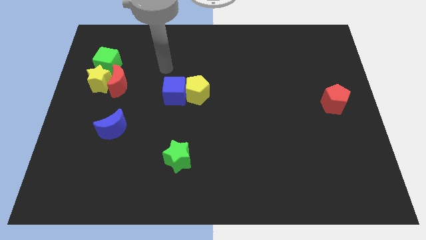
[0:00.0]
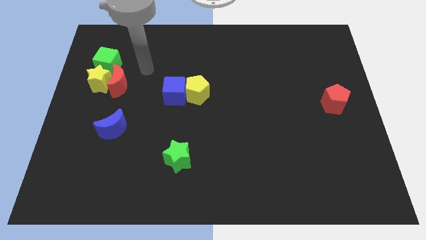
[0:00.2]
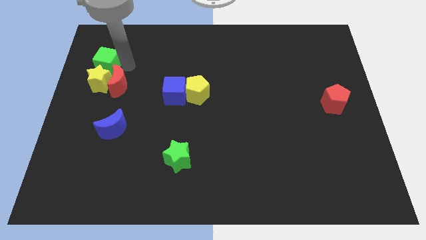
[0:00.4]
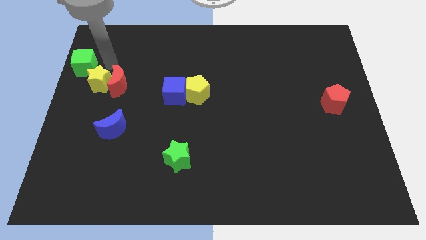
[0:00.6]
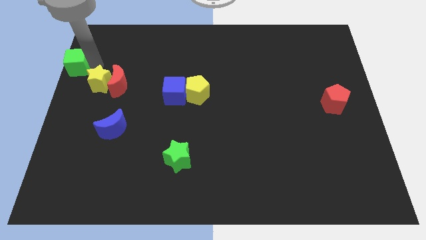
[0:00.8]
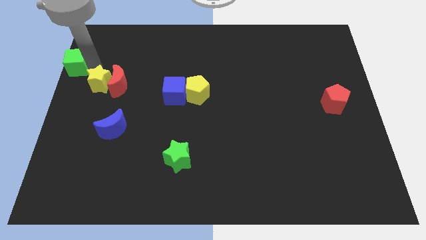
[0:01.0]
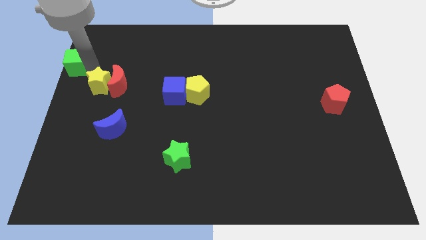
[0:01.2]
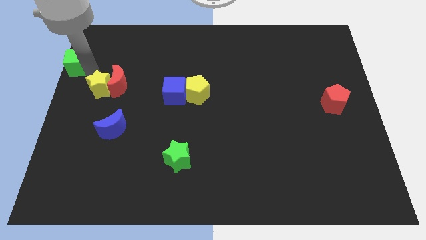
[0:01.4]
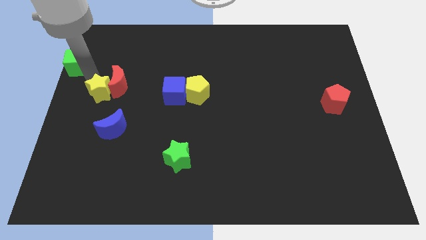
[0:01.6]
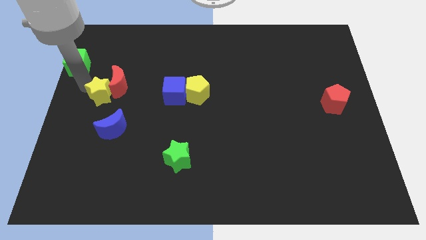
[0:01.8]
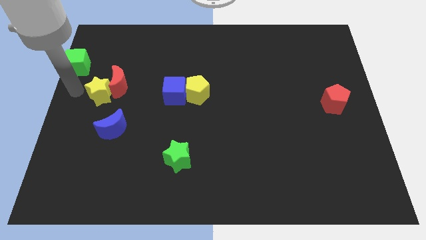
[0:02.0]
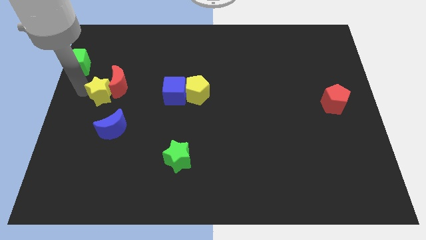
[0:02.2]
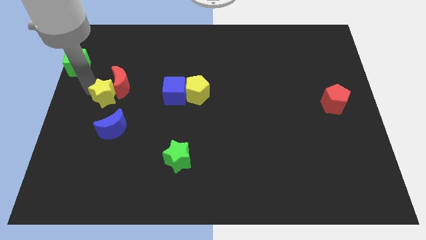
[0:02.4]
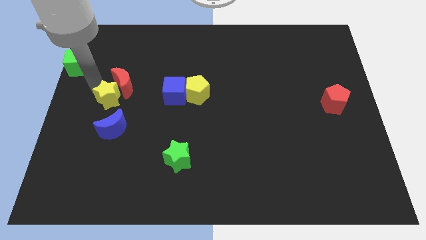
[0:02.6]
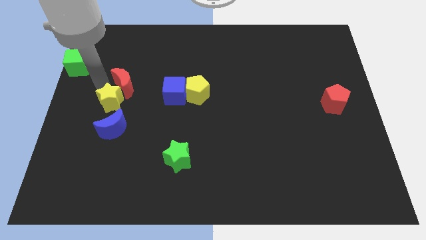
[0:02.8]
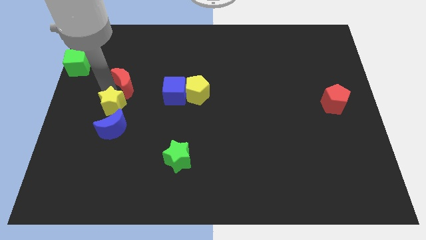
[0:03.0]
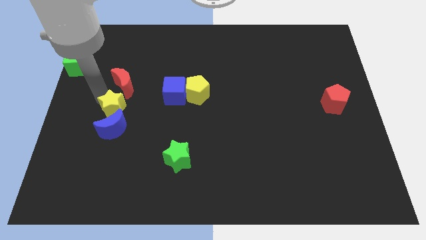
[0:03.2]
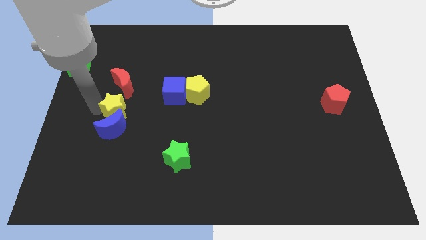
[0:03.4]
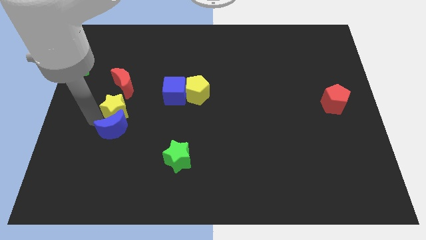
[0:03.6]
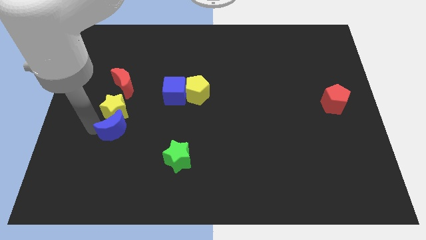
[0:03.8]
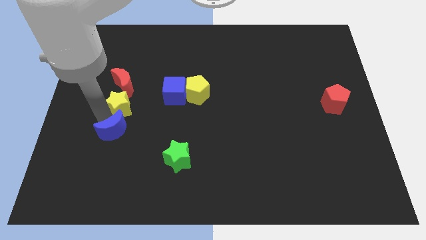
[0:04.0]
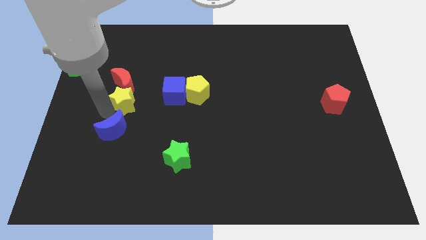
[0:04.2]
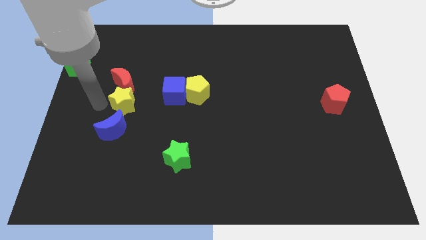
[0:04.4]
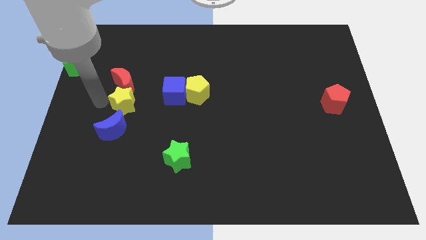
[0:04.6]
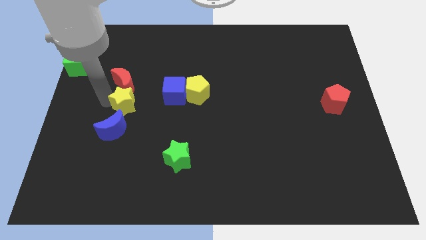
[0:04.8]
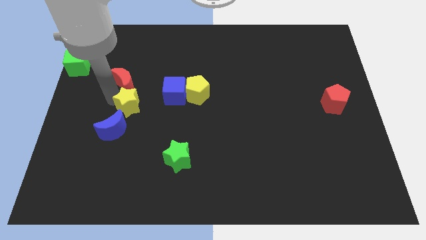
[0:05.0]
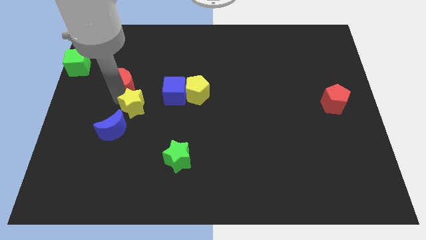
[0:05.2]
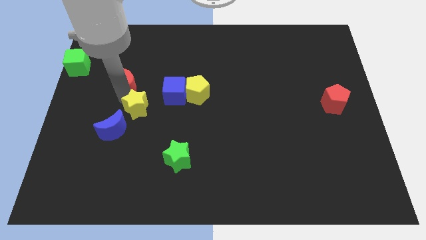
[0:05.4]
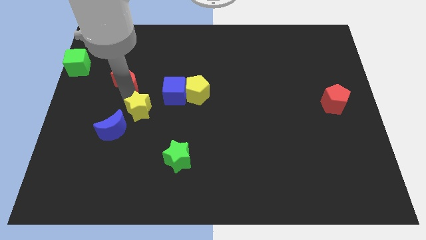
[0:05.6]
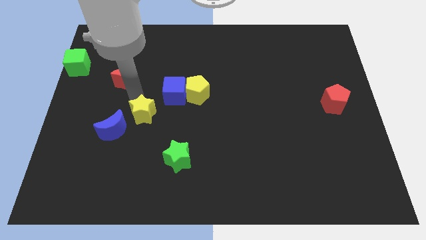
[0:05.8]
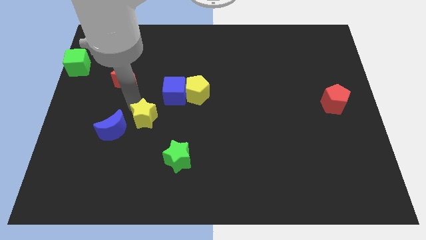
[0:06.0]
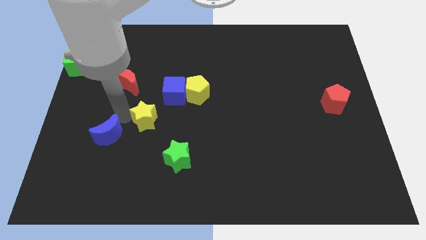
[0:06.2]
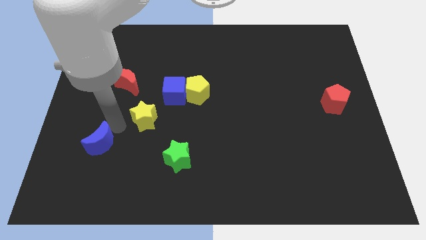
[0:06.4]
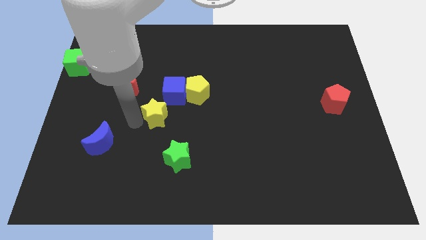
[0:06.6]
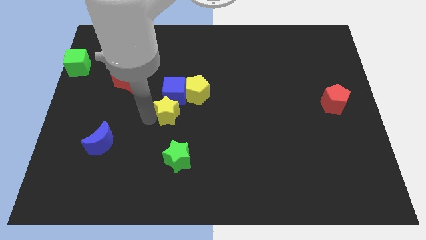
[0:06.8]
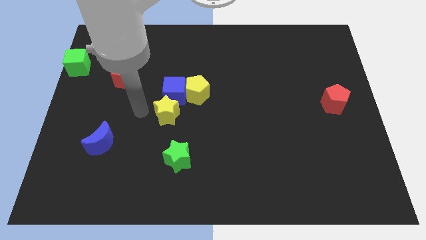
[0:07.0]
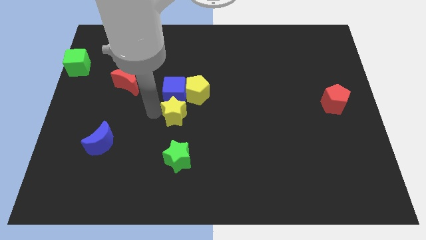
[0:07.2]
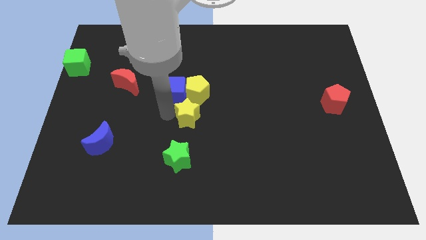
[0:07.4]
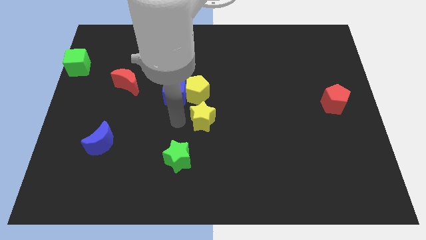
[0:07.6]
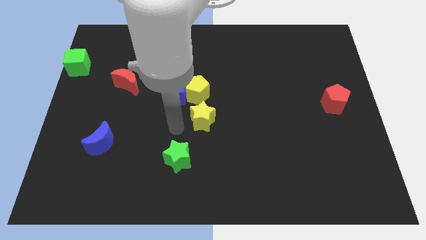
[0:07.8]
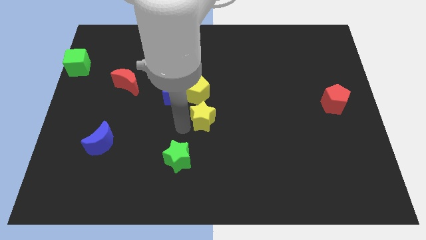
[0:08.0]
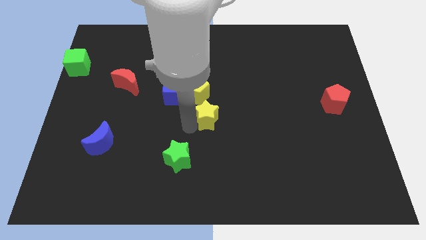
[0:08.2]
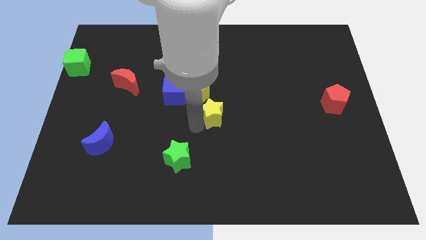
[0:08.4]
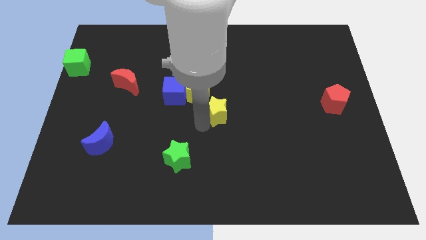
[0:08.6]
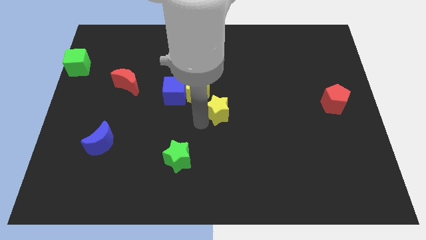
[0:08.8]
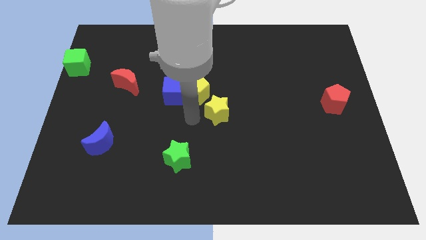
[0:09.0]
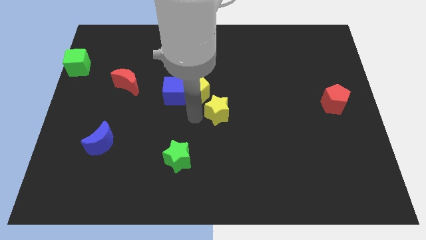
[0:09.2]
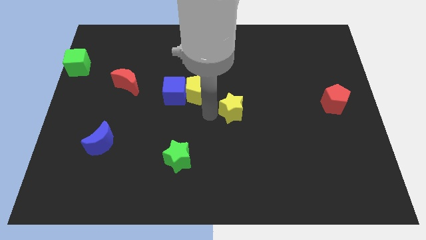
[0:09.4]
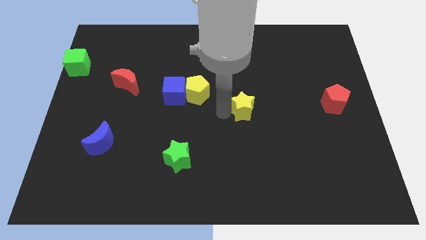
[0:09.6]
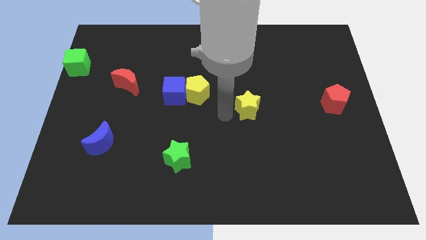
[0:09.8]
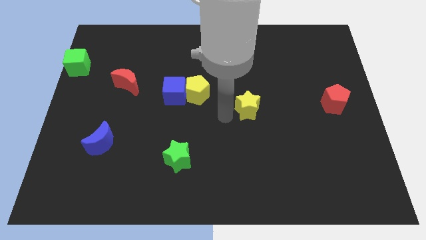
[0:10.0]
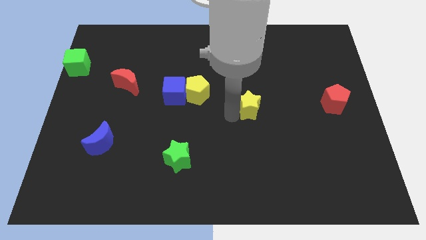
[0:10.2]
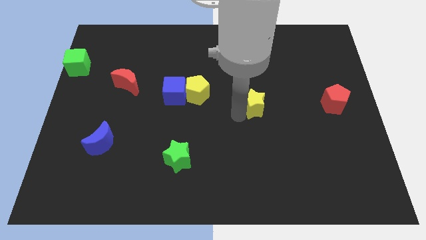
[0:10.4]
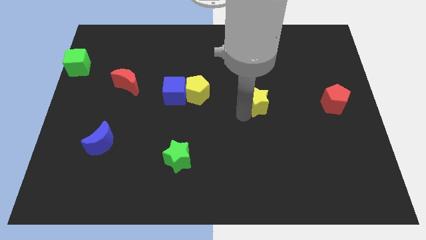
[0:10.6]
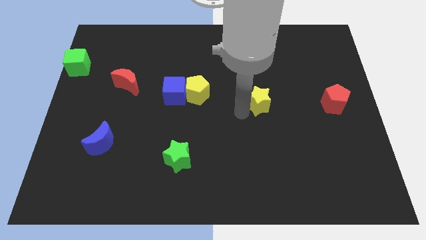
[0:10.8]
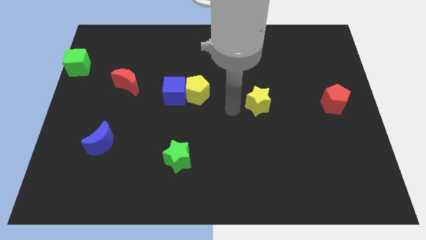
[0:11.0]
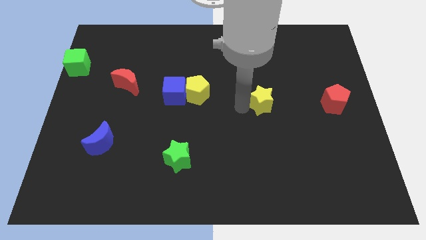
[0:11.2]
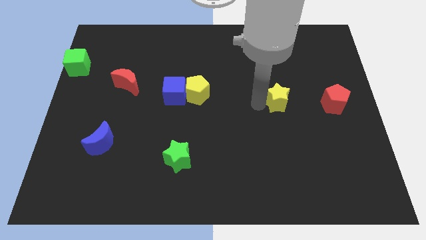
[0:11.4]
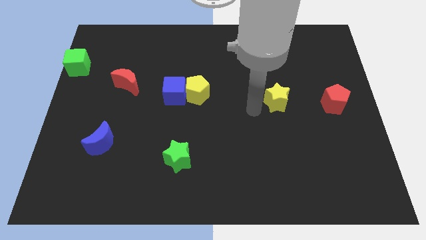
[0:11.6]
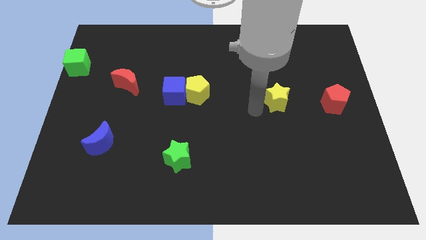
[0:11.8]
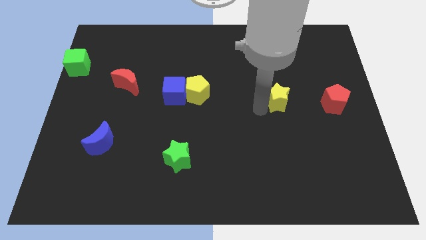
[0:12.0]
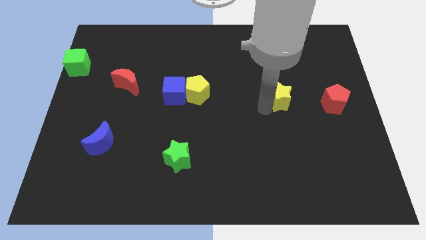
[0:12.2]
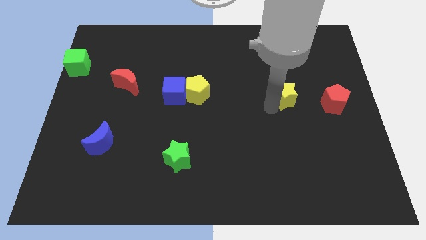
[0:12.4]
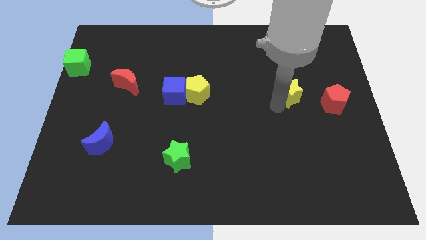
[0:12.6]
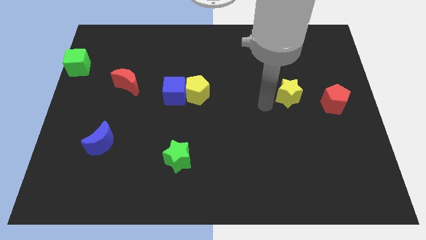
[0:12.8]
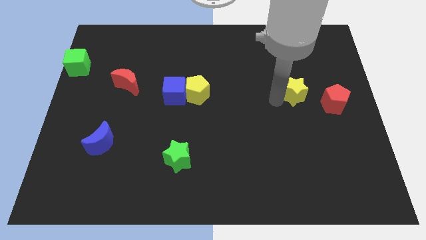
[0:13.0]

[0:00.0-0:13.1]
put the yellow star to the top left side of the red pentagon

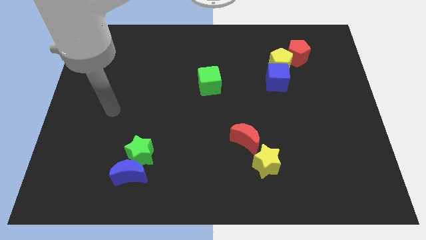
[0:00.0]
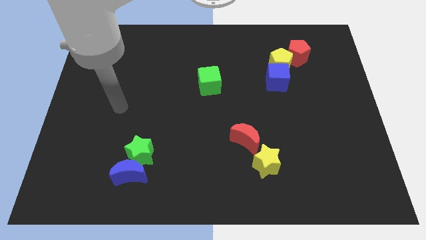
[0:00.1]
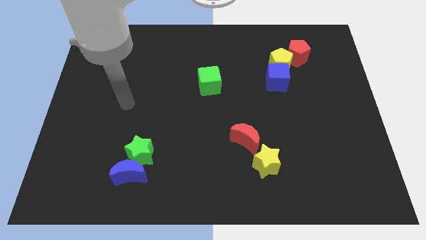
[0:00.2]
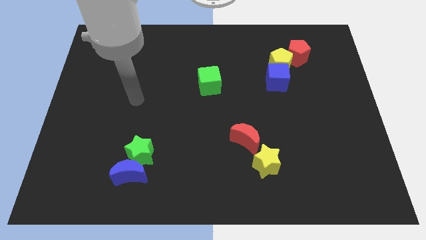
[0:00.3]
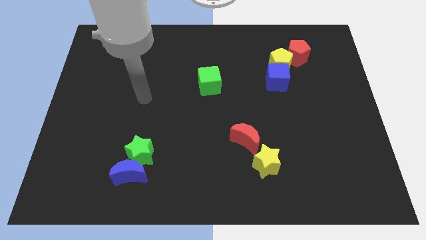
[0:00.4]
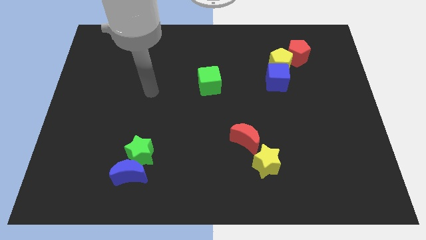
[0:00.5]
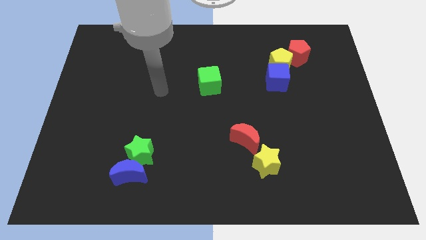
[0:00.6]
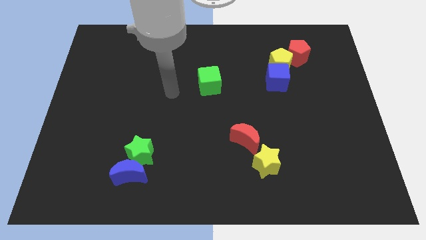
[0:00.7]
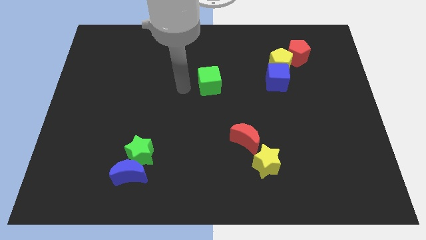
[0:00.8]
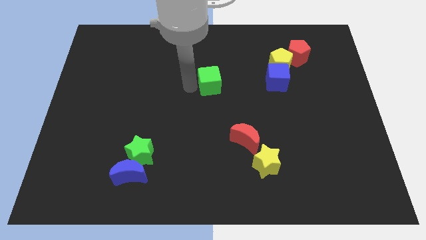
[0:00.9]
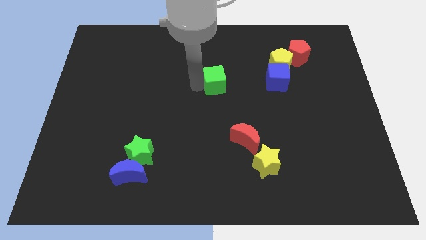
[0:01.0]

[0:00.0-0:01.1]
put the green cube left of the blue cube
